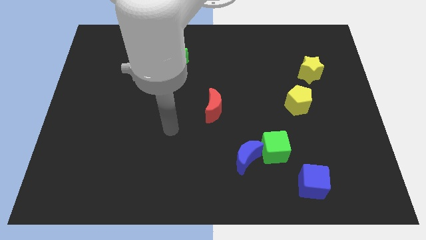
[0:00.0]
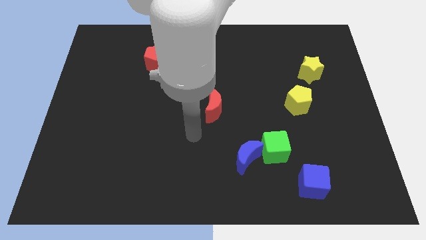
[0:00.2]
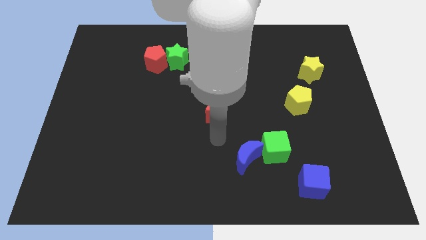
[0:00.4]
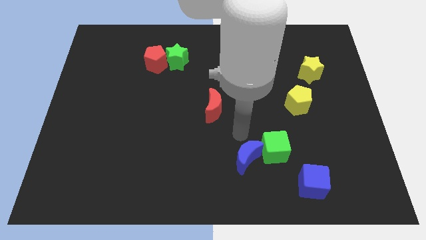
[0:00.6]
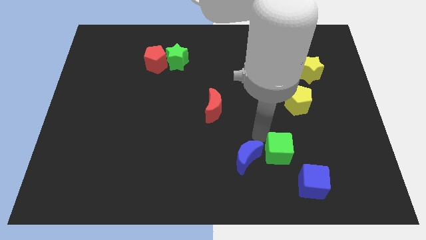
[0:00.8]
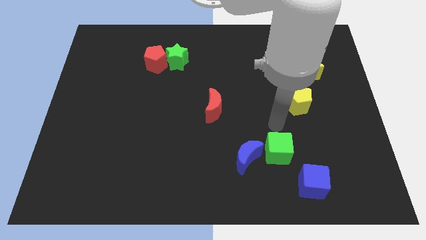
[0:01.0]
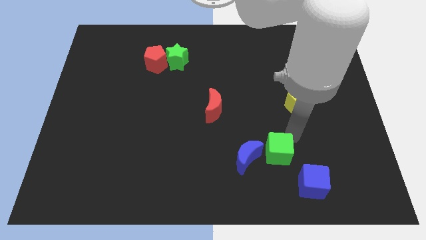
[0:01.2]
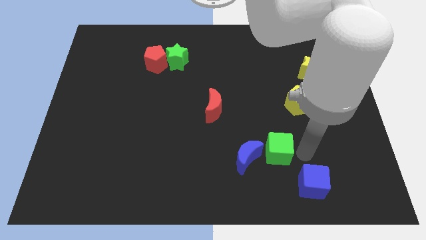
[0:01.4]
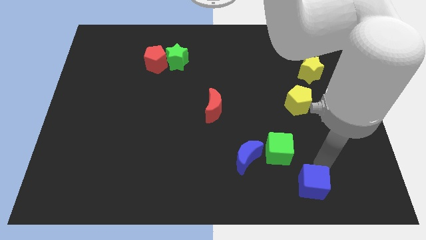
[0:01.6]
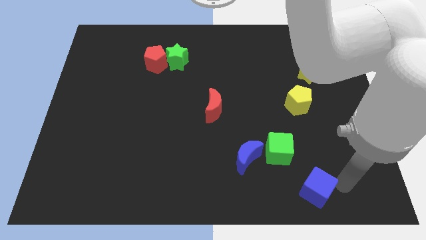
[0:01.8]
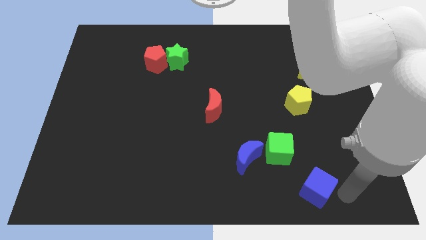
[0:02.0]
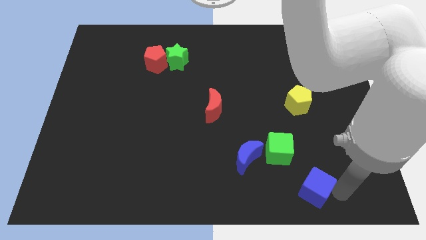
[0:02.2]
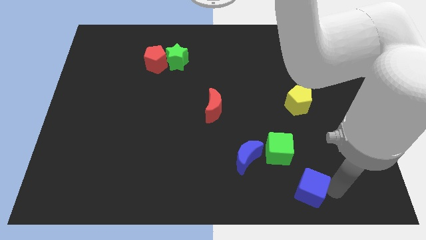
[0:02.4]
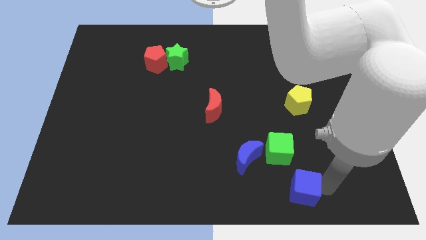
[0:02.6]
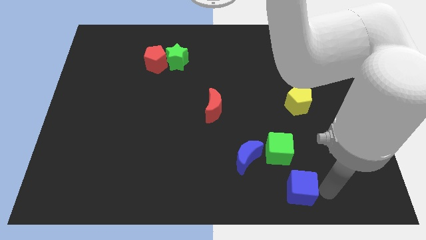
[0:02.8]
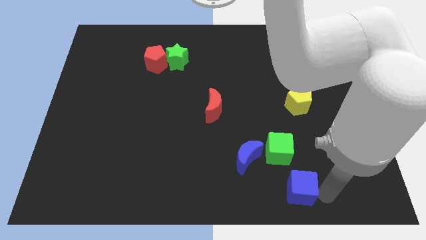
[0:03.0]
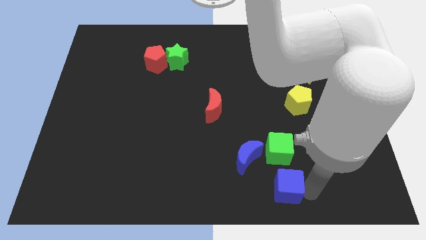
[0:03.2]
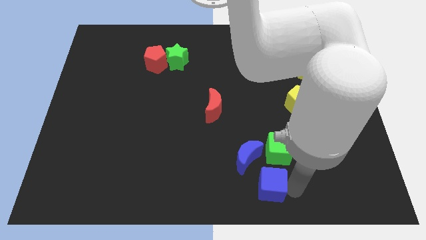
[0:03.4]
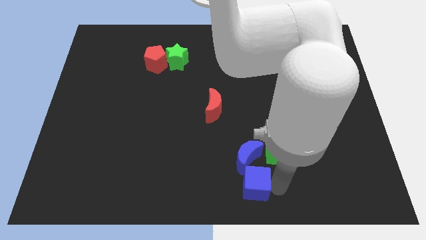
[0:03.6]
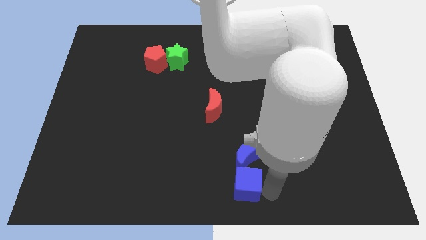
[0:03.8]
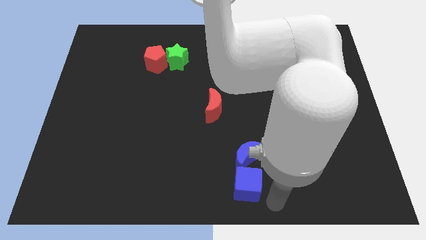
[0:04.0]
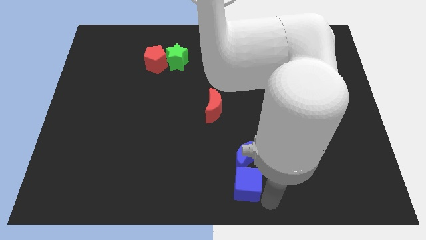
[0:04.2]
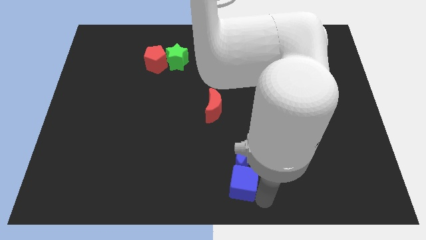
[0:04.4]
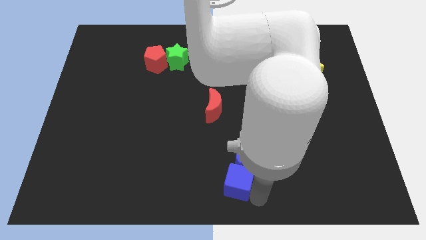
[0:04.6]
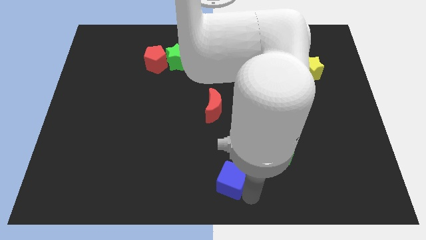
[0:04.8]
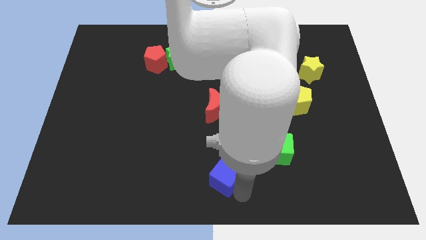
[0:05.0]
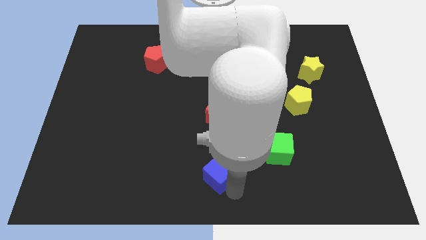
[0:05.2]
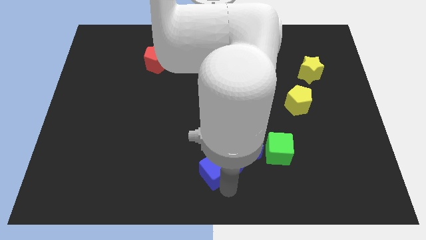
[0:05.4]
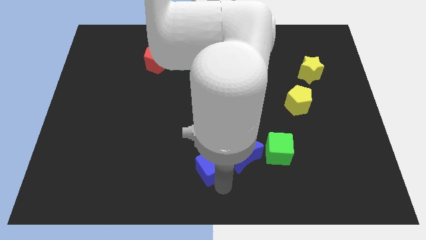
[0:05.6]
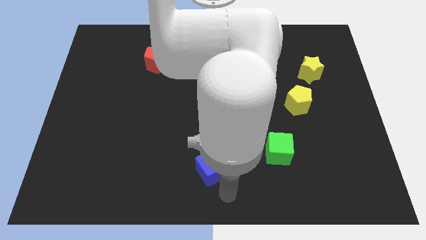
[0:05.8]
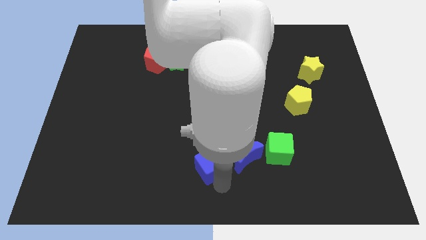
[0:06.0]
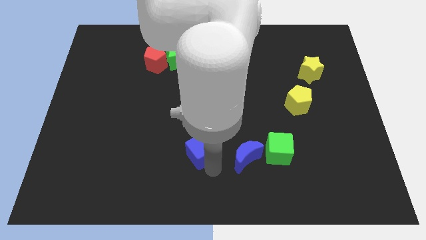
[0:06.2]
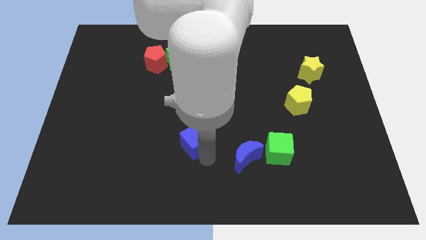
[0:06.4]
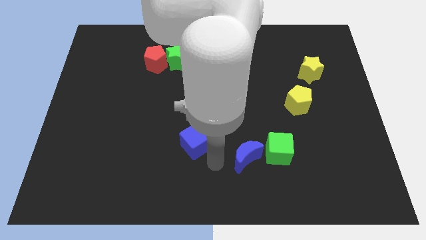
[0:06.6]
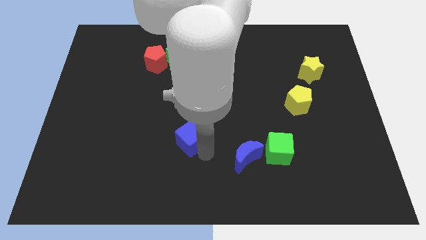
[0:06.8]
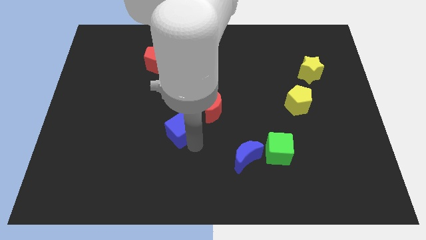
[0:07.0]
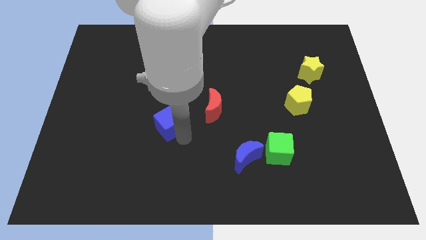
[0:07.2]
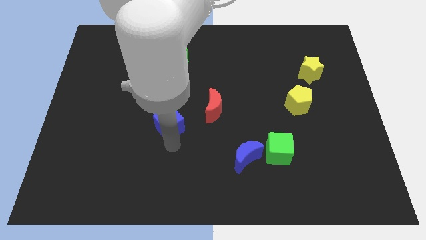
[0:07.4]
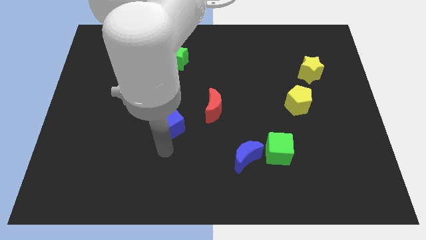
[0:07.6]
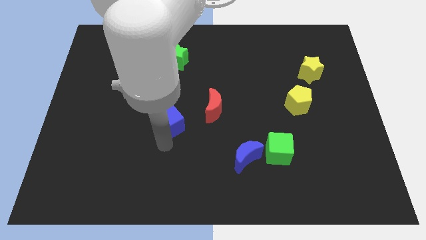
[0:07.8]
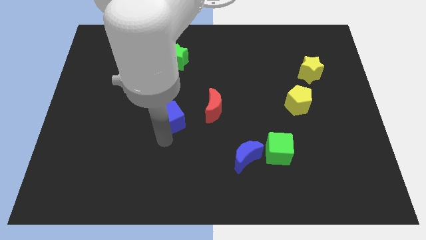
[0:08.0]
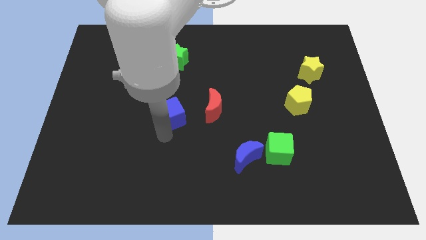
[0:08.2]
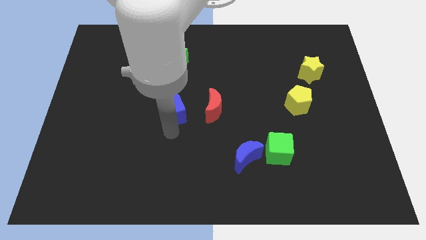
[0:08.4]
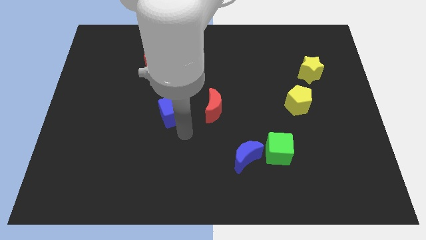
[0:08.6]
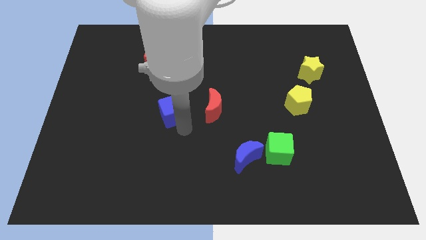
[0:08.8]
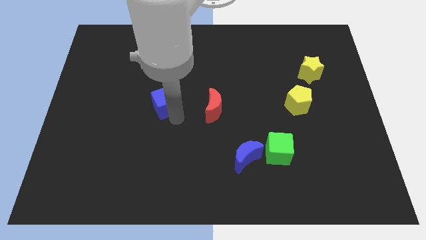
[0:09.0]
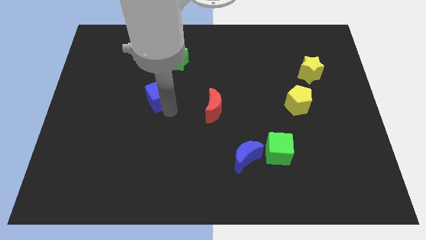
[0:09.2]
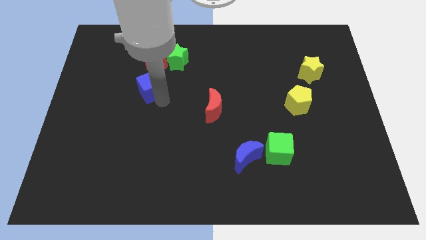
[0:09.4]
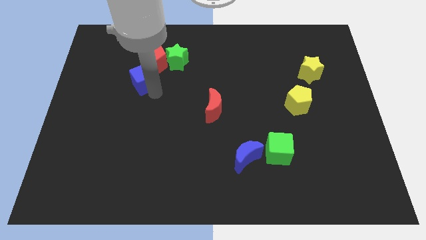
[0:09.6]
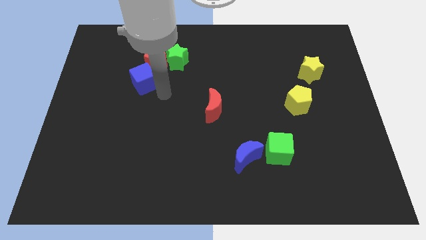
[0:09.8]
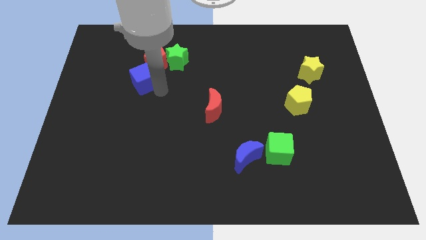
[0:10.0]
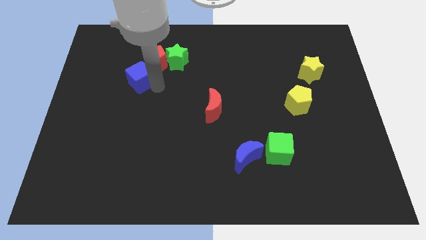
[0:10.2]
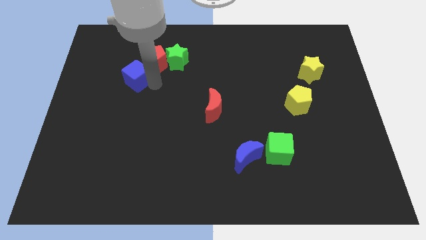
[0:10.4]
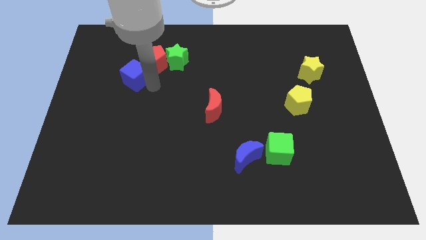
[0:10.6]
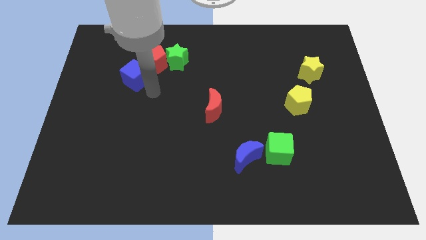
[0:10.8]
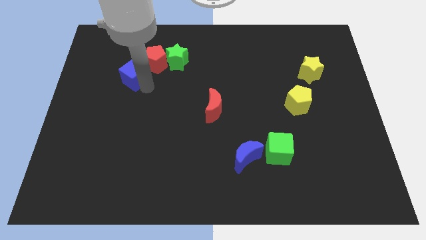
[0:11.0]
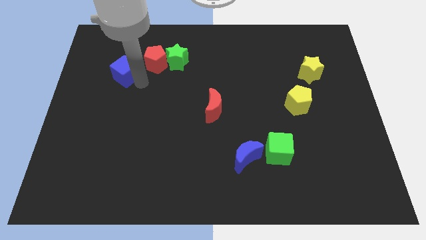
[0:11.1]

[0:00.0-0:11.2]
put the blue cube to the left of the red pentagon

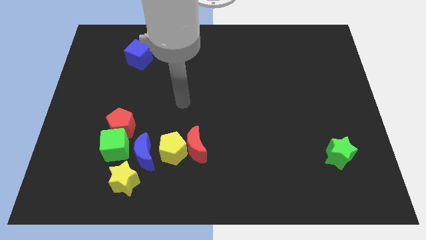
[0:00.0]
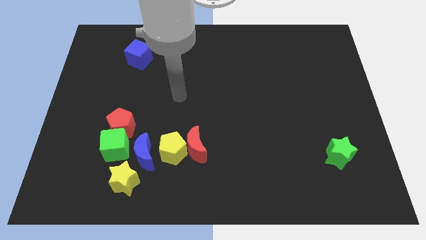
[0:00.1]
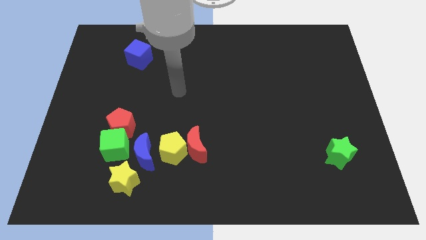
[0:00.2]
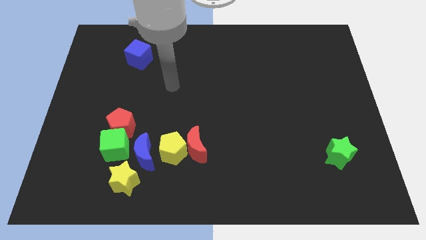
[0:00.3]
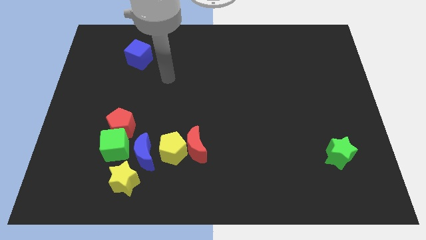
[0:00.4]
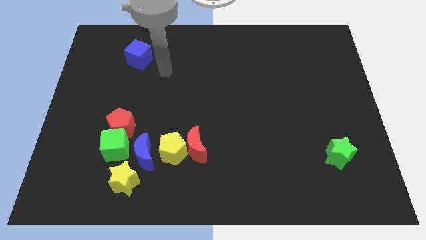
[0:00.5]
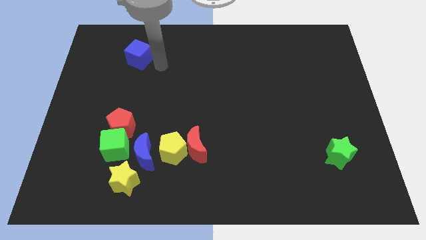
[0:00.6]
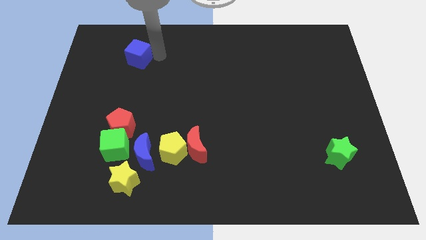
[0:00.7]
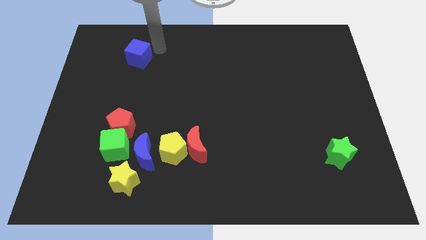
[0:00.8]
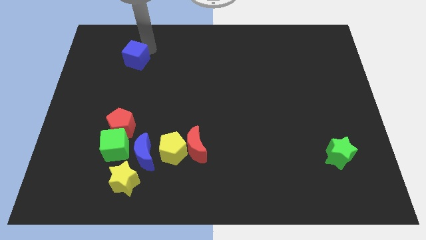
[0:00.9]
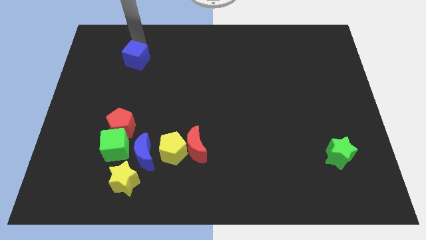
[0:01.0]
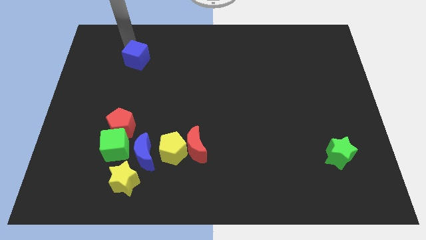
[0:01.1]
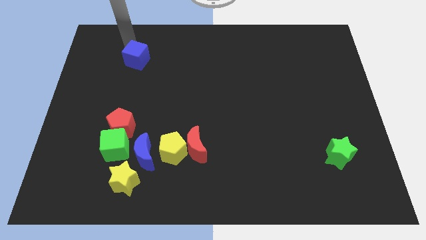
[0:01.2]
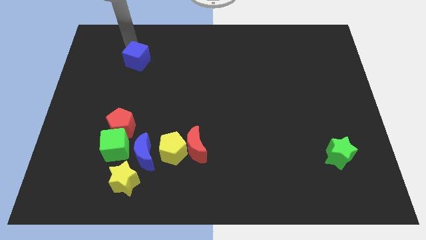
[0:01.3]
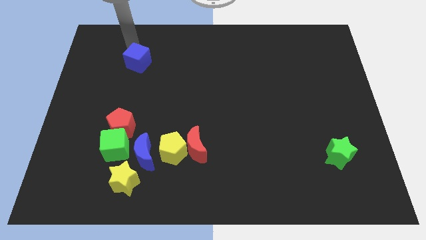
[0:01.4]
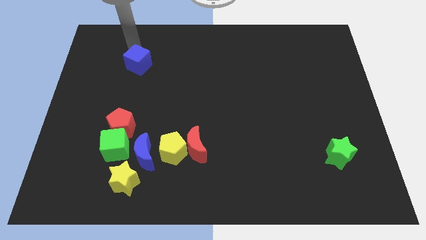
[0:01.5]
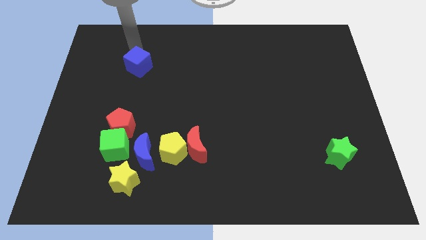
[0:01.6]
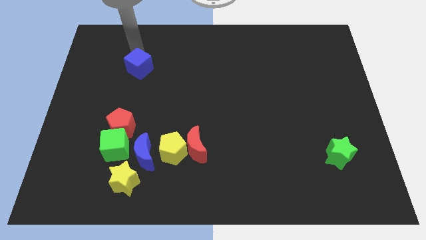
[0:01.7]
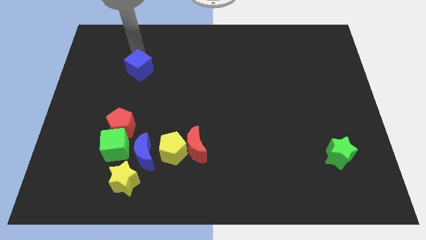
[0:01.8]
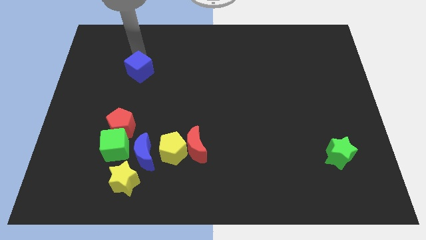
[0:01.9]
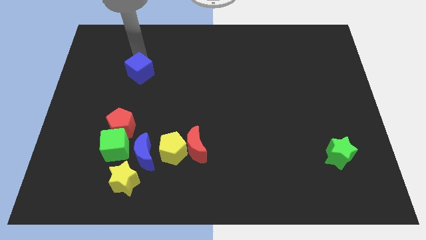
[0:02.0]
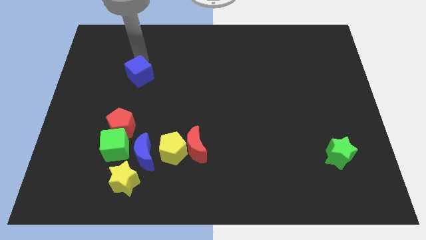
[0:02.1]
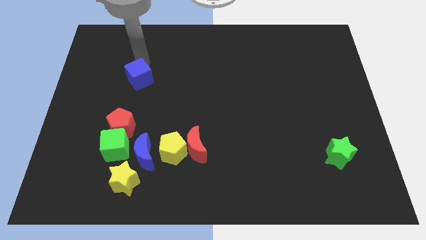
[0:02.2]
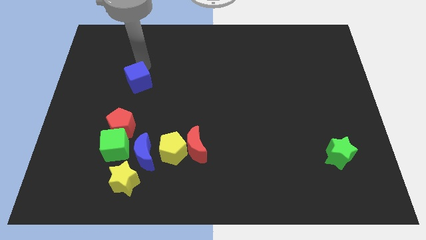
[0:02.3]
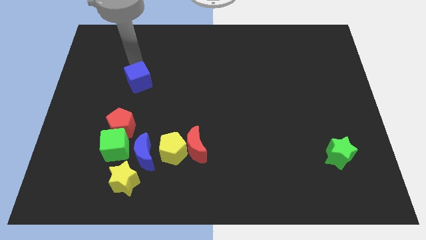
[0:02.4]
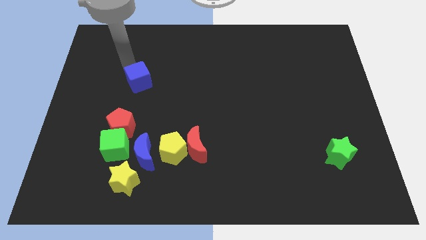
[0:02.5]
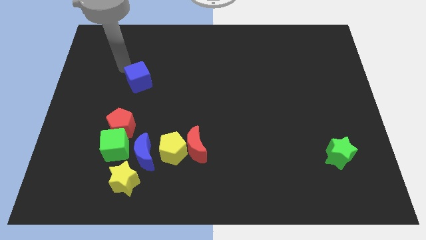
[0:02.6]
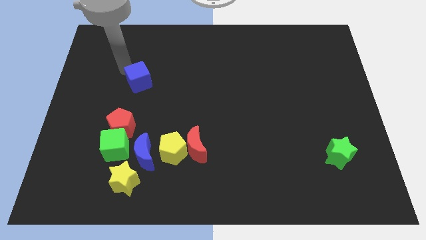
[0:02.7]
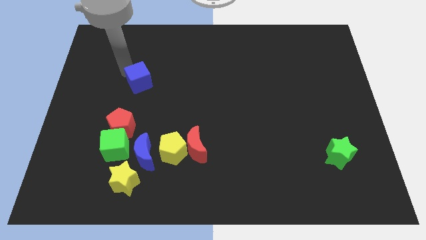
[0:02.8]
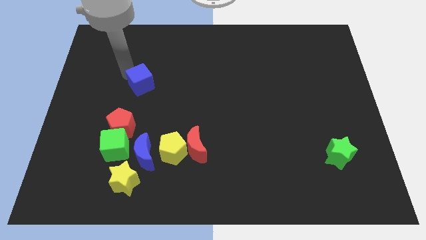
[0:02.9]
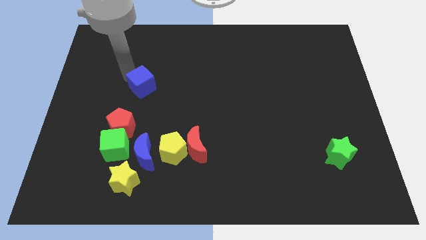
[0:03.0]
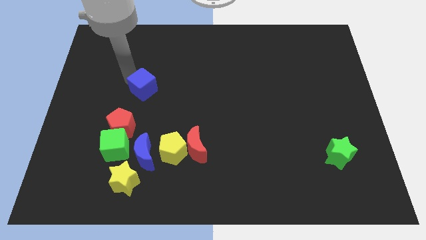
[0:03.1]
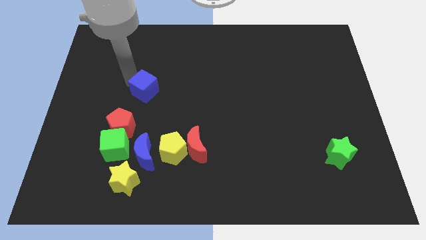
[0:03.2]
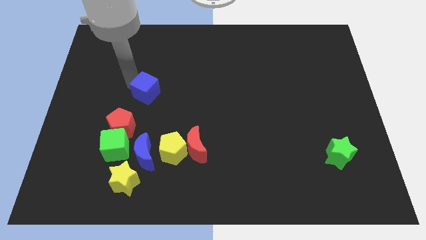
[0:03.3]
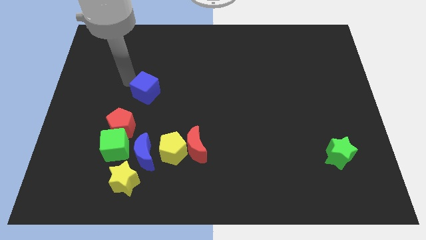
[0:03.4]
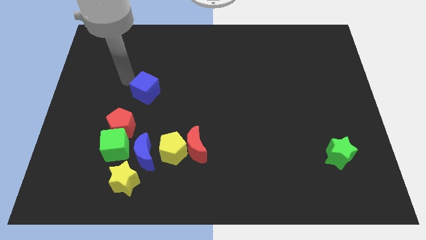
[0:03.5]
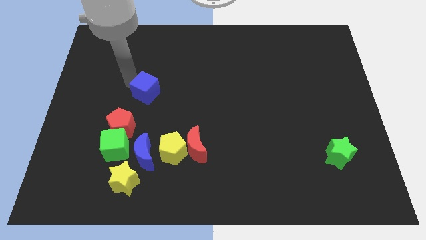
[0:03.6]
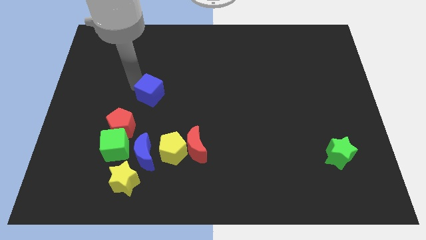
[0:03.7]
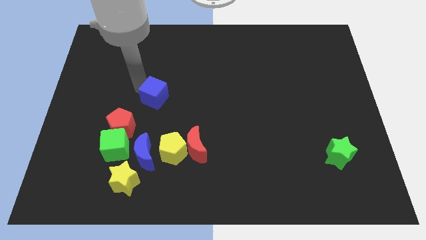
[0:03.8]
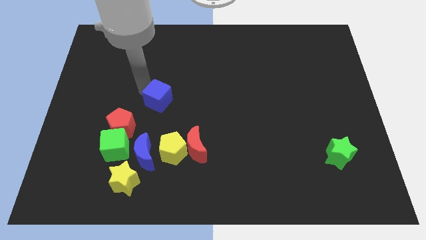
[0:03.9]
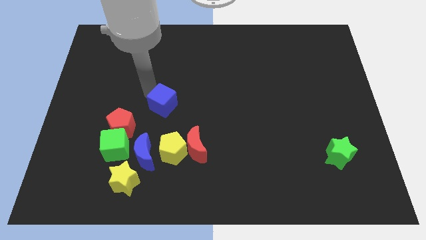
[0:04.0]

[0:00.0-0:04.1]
move the blue cube to the top of the yellow pentagon
